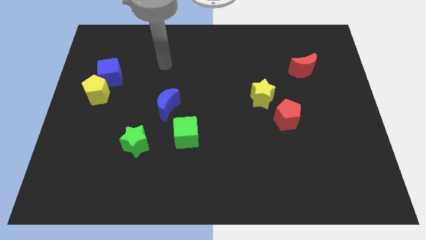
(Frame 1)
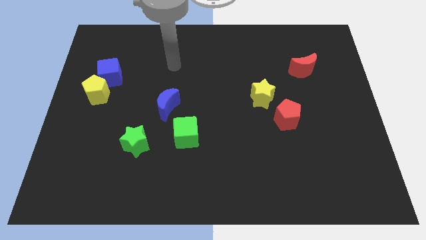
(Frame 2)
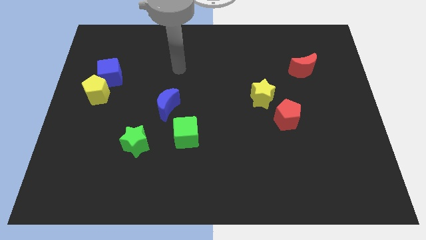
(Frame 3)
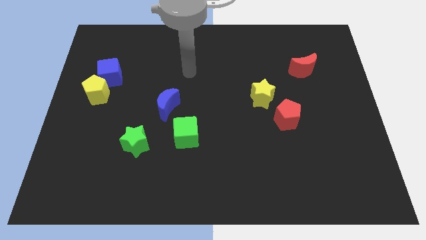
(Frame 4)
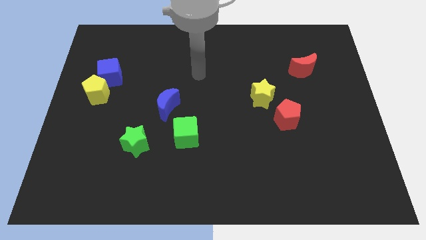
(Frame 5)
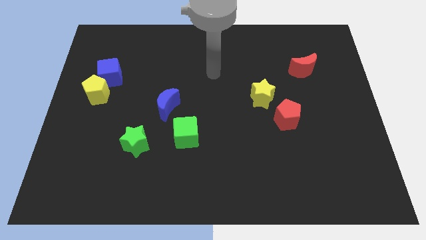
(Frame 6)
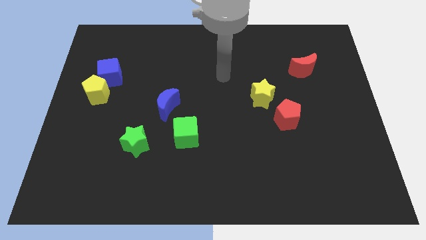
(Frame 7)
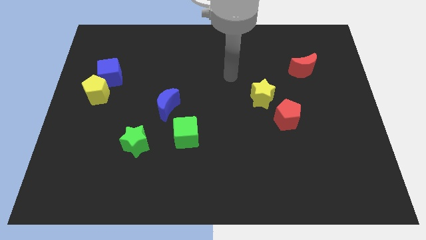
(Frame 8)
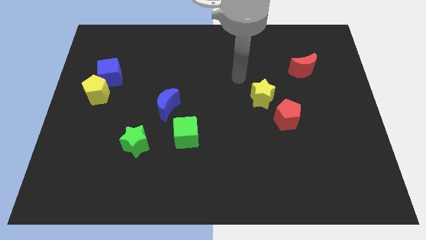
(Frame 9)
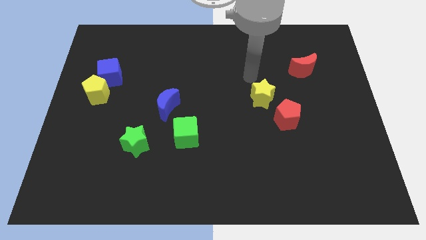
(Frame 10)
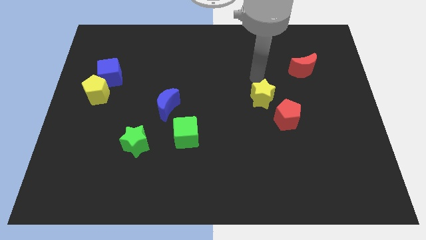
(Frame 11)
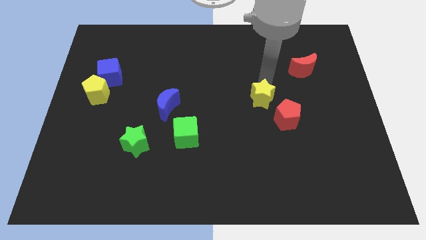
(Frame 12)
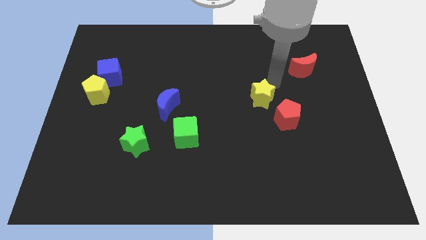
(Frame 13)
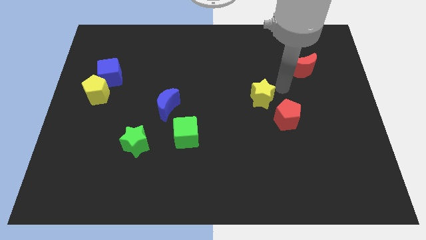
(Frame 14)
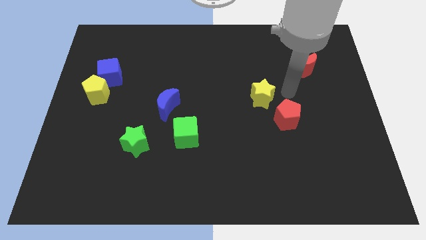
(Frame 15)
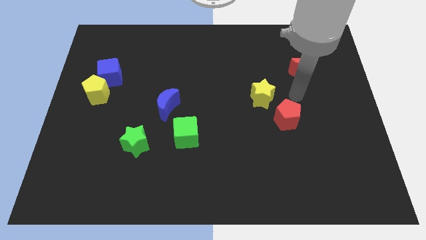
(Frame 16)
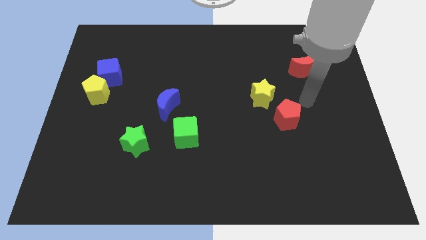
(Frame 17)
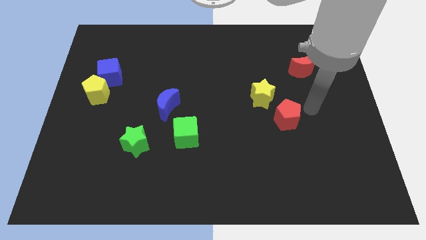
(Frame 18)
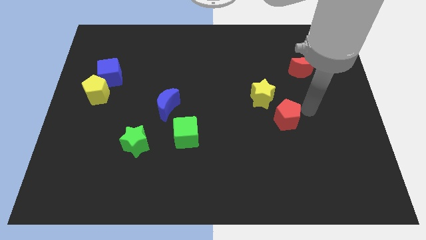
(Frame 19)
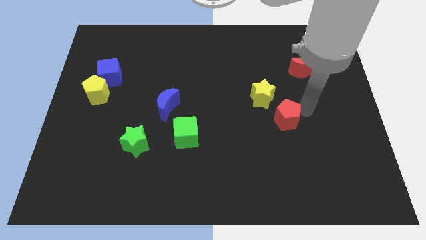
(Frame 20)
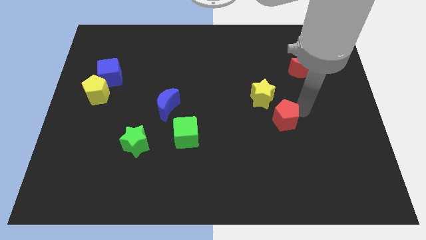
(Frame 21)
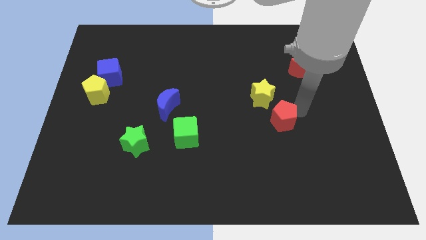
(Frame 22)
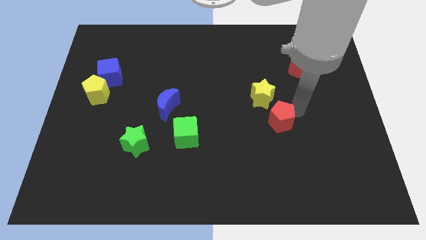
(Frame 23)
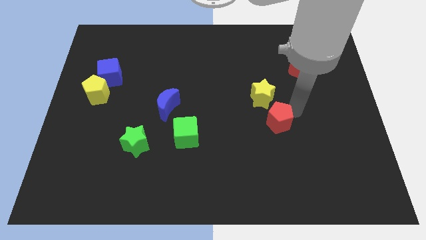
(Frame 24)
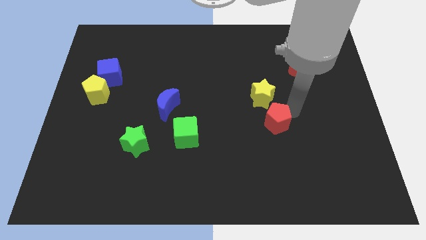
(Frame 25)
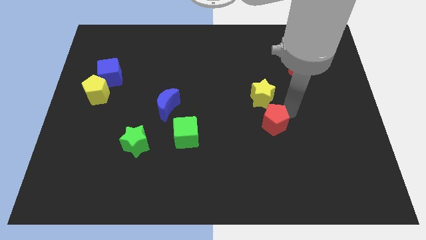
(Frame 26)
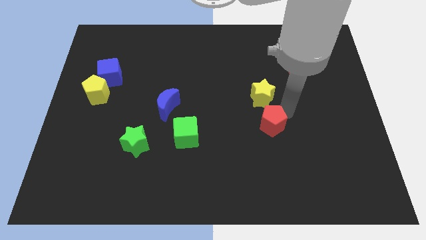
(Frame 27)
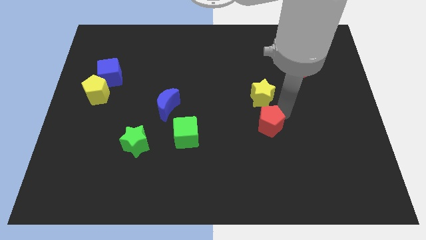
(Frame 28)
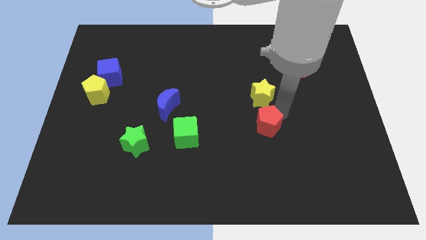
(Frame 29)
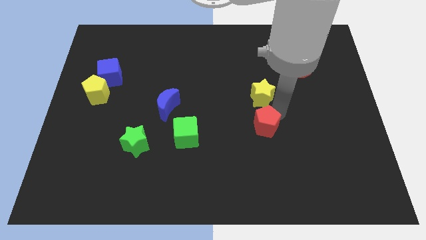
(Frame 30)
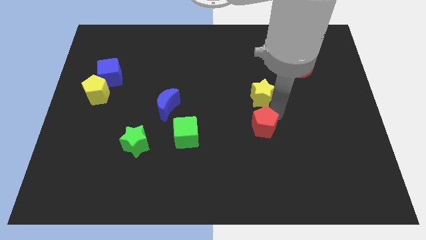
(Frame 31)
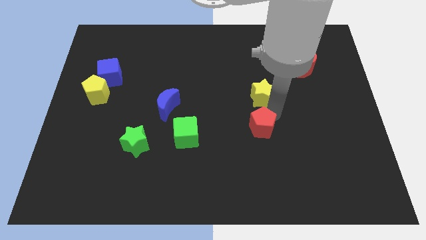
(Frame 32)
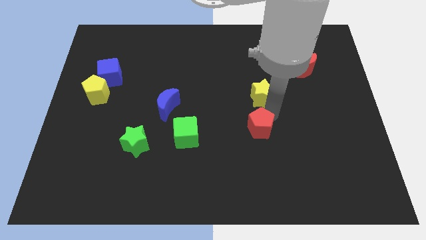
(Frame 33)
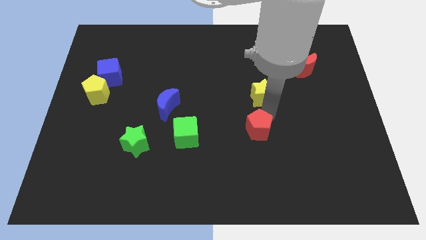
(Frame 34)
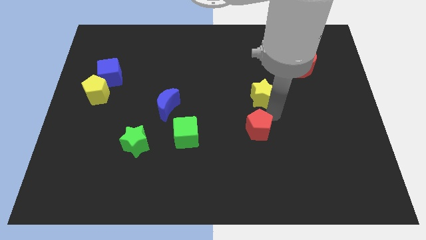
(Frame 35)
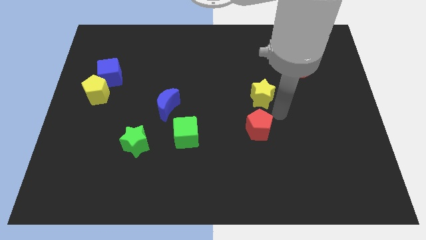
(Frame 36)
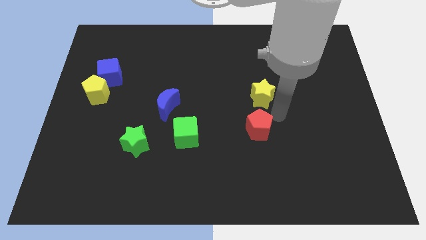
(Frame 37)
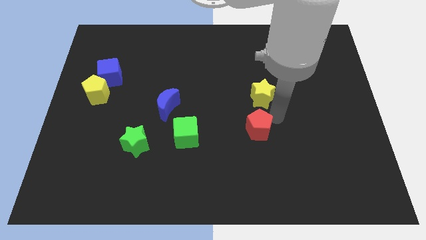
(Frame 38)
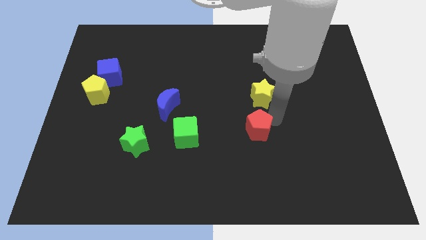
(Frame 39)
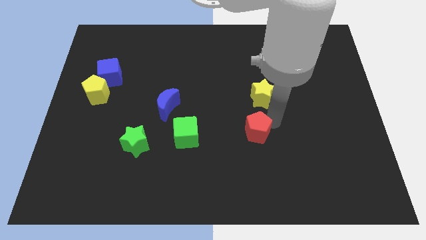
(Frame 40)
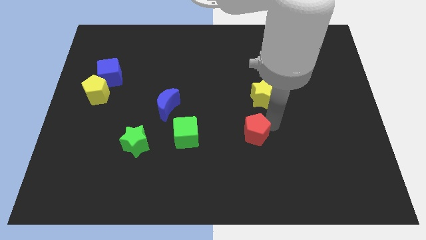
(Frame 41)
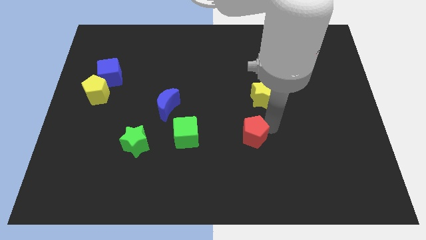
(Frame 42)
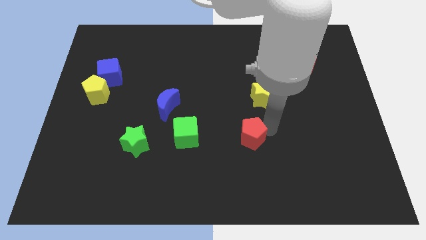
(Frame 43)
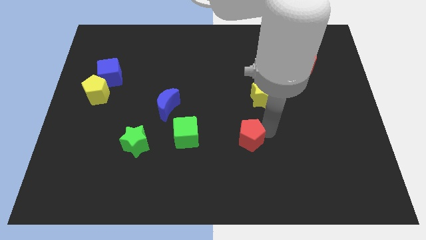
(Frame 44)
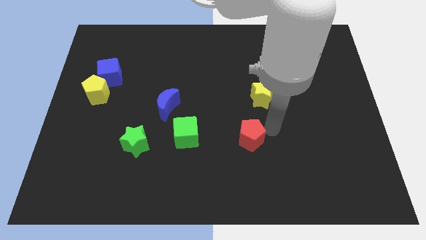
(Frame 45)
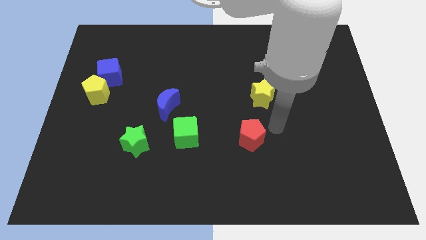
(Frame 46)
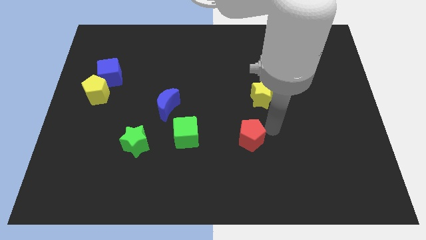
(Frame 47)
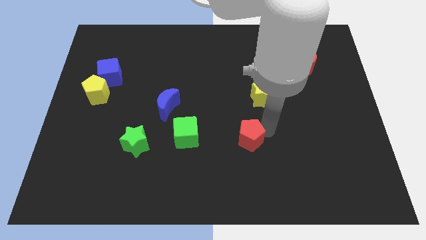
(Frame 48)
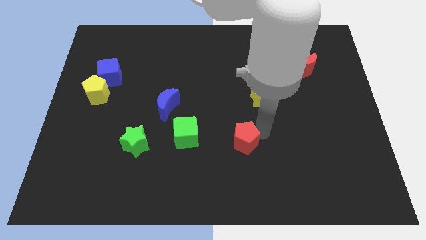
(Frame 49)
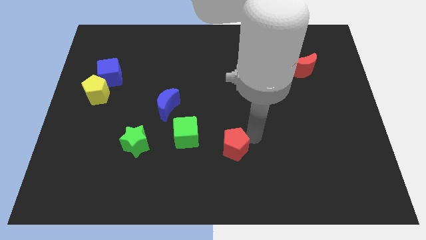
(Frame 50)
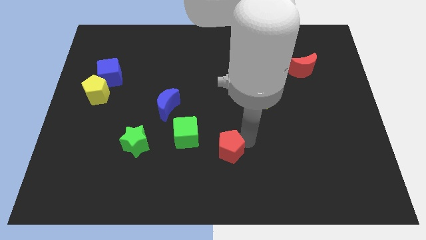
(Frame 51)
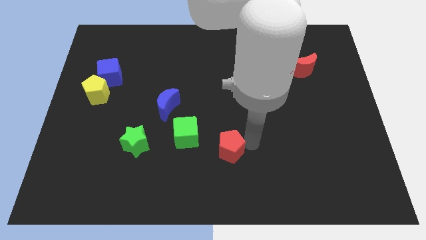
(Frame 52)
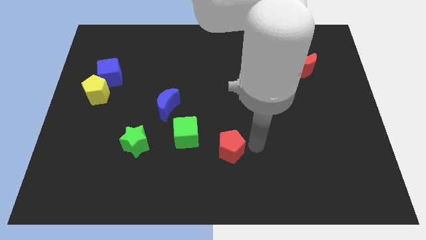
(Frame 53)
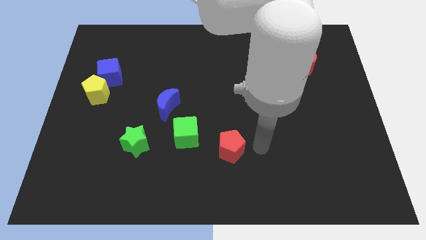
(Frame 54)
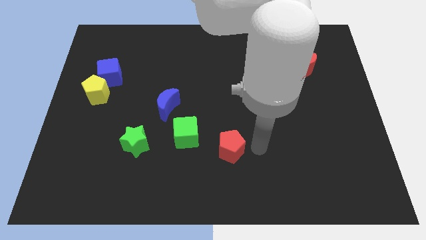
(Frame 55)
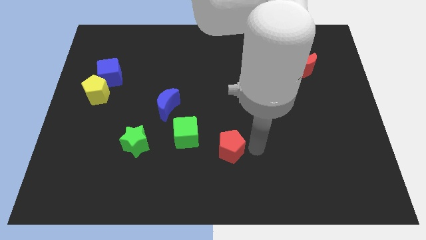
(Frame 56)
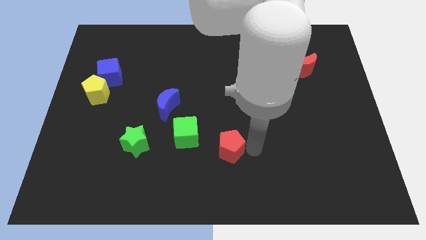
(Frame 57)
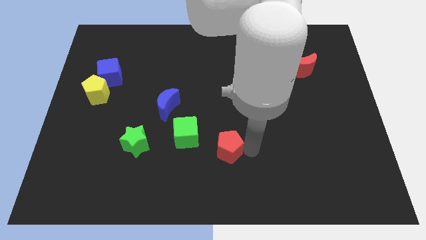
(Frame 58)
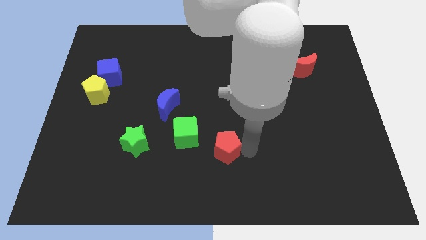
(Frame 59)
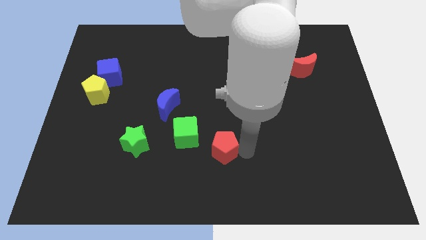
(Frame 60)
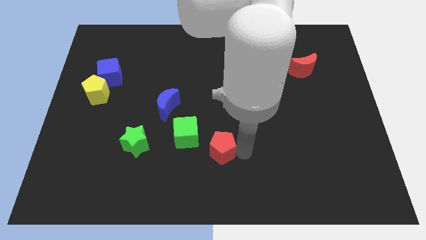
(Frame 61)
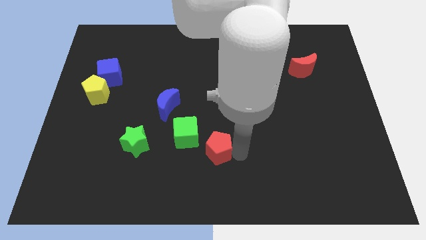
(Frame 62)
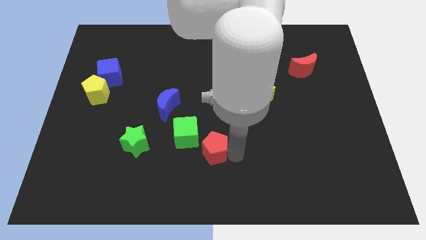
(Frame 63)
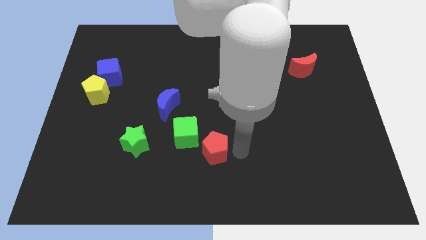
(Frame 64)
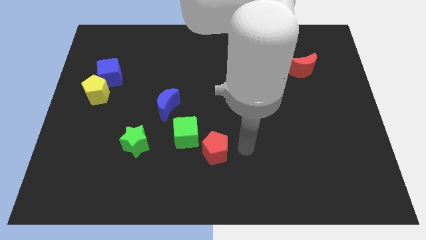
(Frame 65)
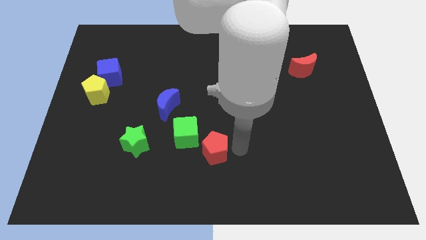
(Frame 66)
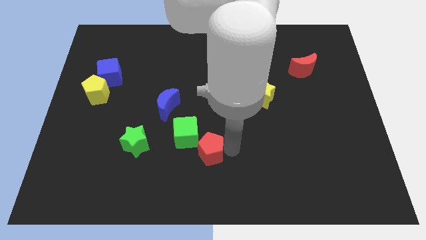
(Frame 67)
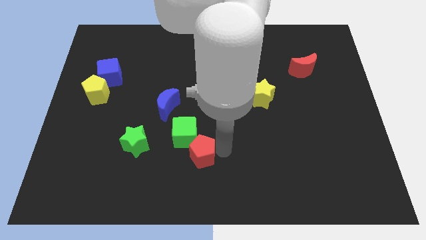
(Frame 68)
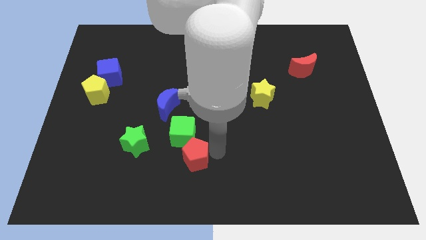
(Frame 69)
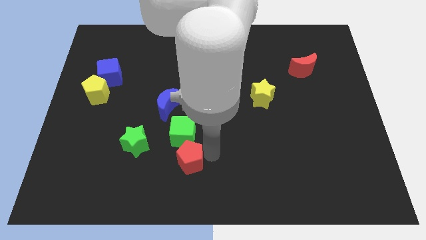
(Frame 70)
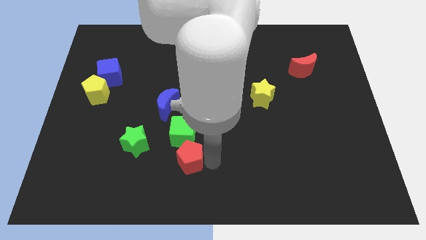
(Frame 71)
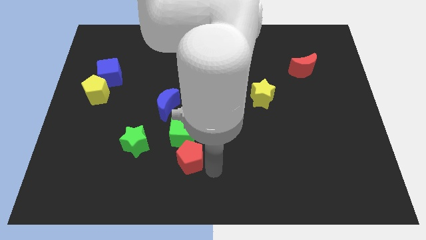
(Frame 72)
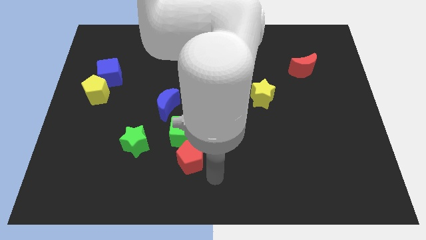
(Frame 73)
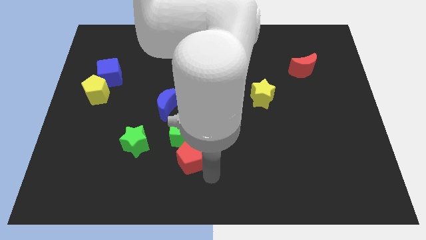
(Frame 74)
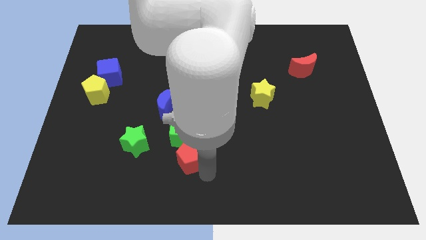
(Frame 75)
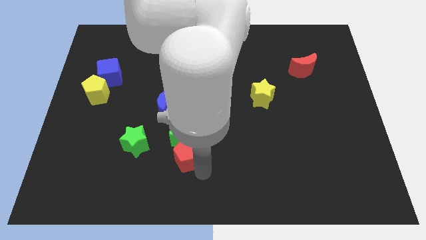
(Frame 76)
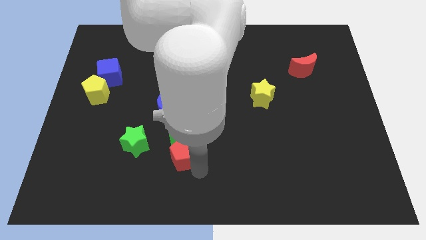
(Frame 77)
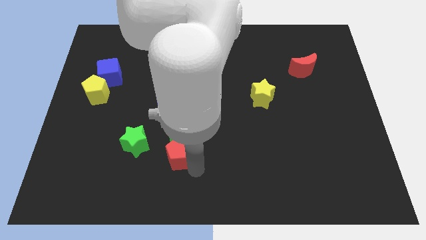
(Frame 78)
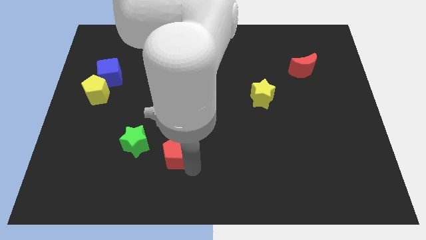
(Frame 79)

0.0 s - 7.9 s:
slide the red pentagon to the left
